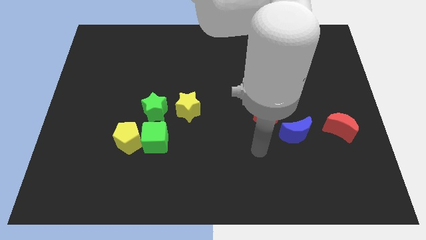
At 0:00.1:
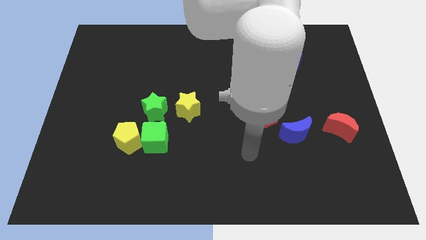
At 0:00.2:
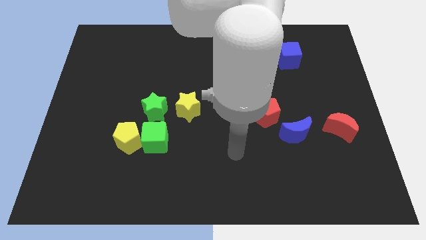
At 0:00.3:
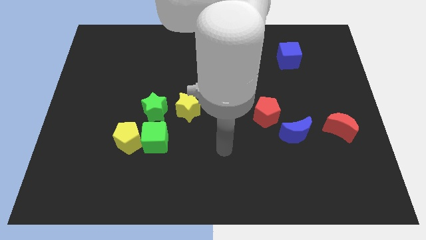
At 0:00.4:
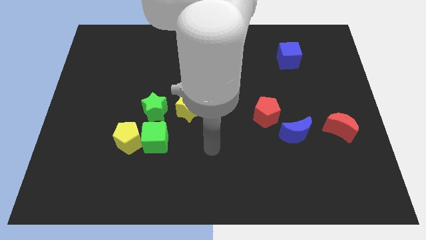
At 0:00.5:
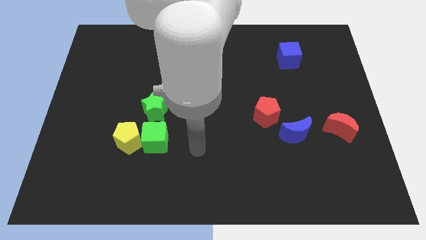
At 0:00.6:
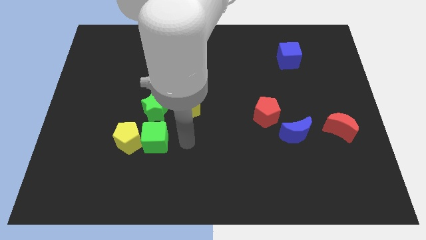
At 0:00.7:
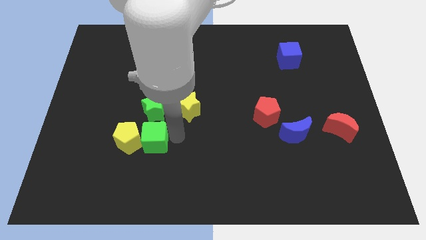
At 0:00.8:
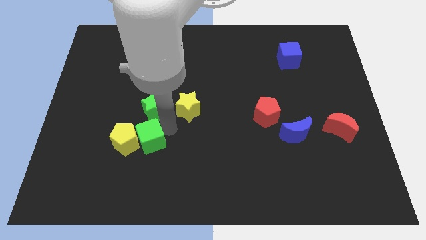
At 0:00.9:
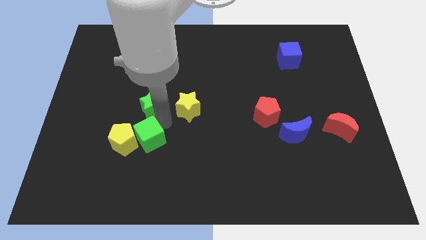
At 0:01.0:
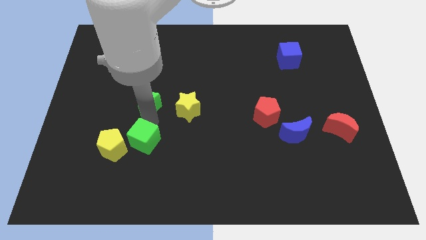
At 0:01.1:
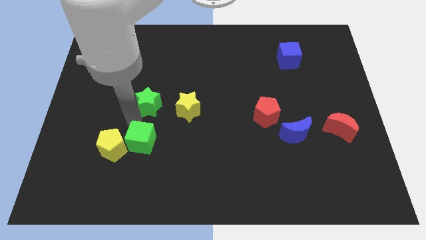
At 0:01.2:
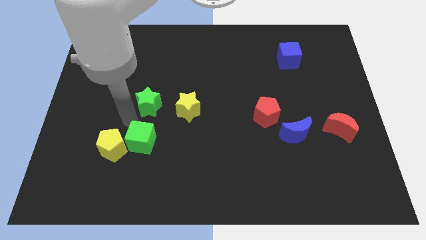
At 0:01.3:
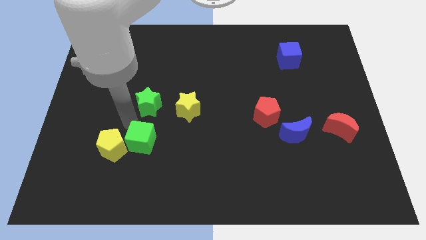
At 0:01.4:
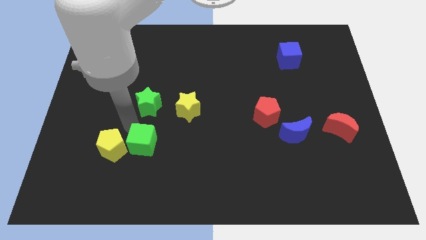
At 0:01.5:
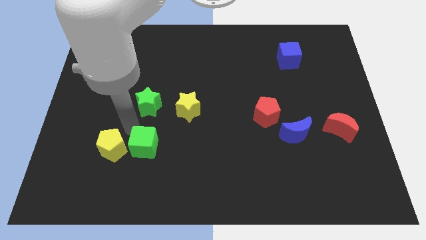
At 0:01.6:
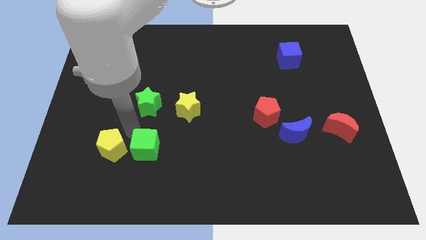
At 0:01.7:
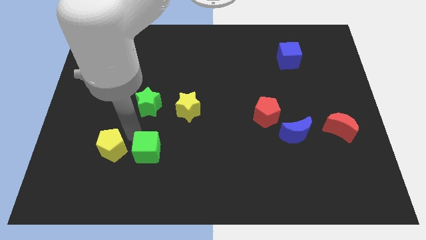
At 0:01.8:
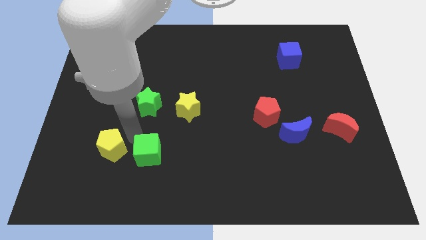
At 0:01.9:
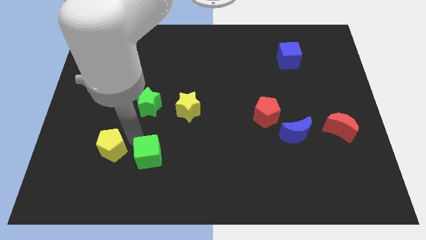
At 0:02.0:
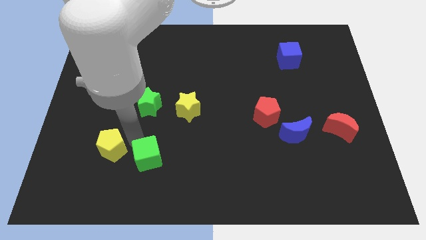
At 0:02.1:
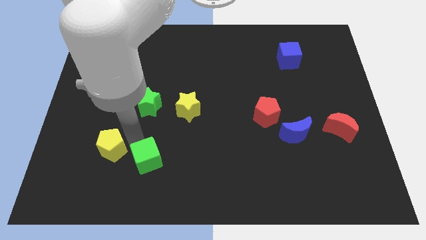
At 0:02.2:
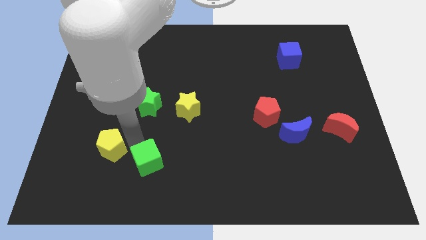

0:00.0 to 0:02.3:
separate the green cube from the yellow pentagon and green star

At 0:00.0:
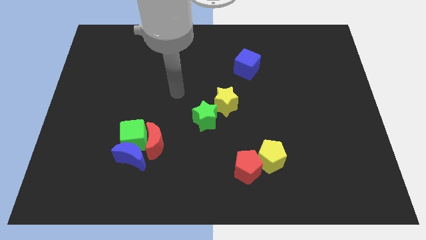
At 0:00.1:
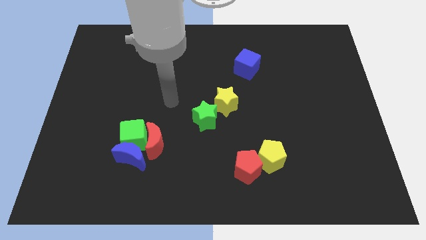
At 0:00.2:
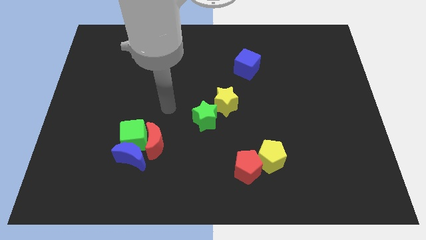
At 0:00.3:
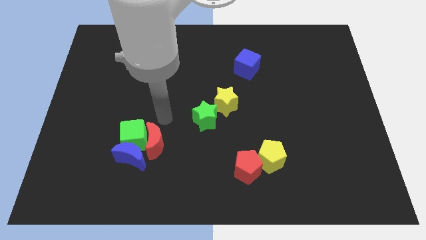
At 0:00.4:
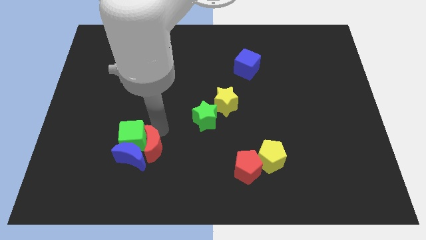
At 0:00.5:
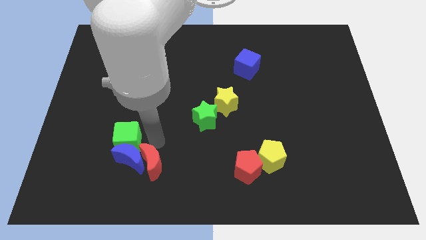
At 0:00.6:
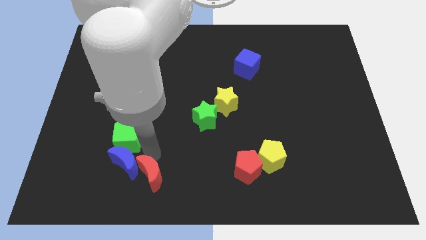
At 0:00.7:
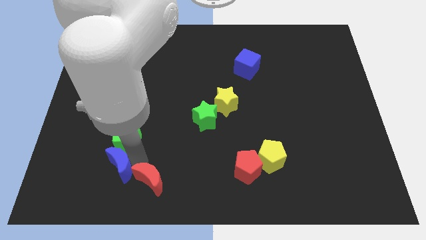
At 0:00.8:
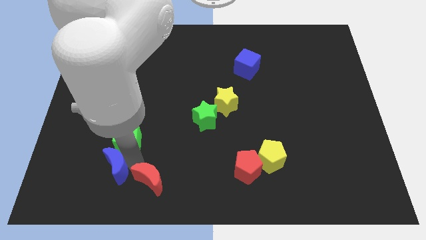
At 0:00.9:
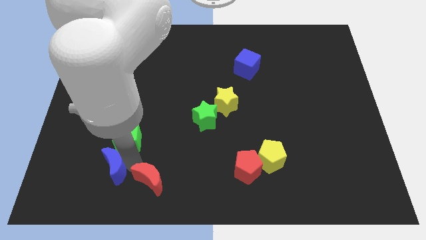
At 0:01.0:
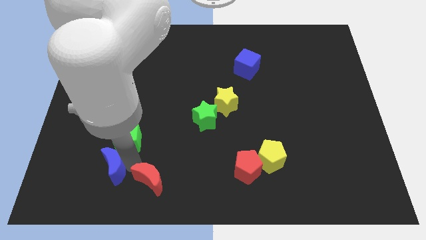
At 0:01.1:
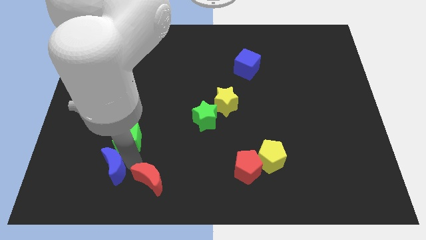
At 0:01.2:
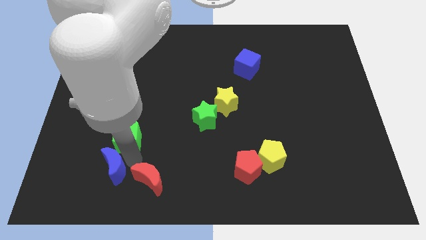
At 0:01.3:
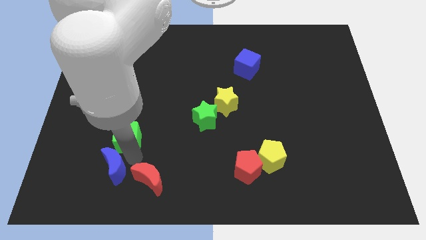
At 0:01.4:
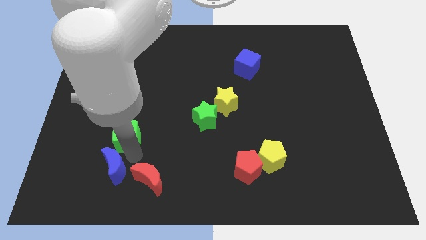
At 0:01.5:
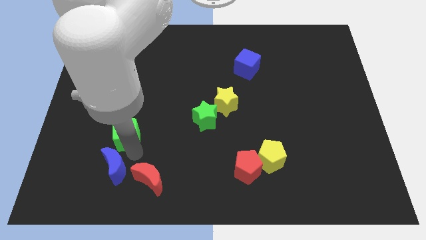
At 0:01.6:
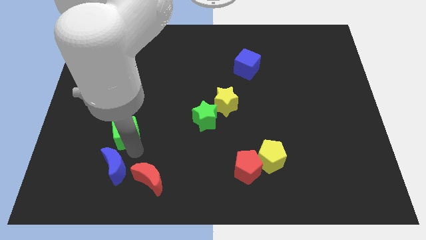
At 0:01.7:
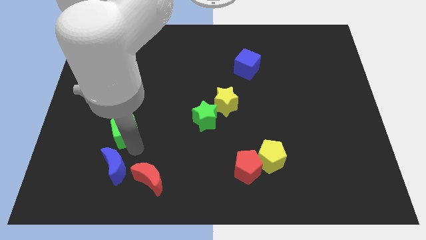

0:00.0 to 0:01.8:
move the green cube away from the blue moon and red moon

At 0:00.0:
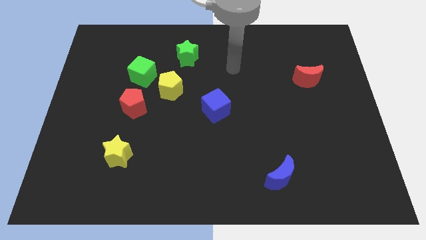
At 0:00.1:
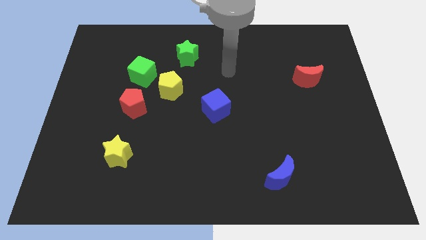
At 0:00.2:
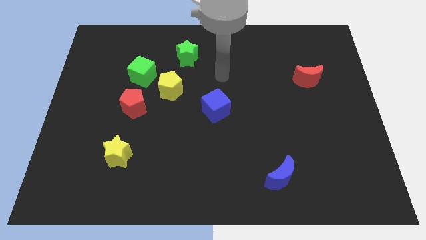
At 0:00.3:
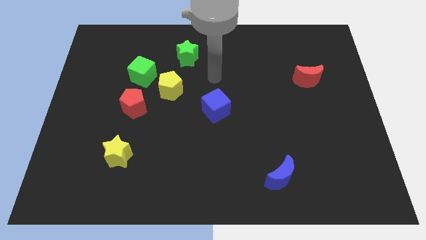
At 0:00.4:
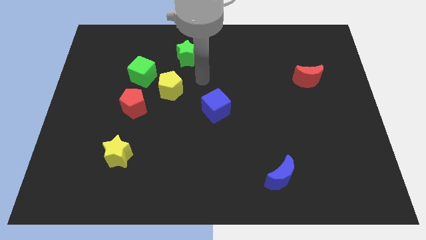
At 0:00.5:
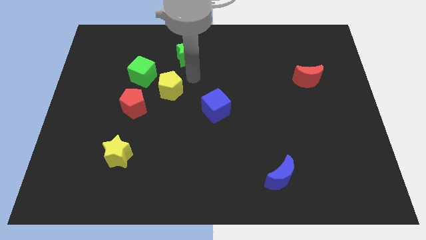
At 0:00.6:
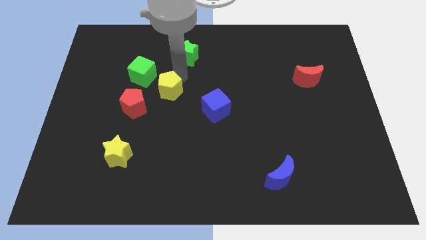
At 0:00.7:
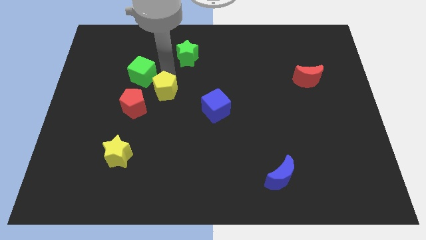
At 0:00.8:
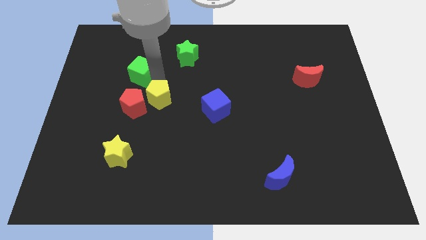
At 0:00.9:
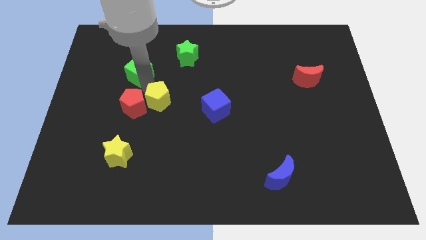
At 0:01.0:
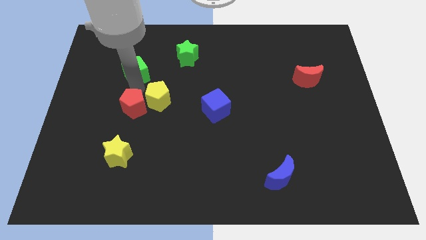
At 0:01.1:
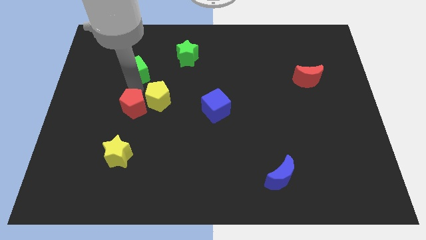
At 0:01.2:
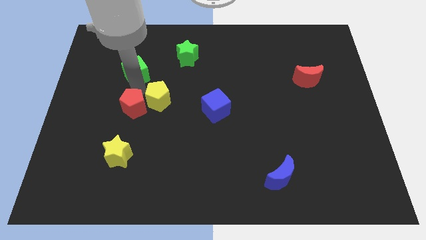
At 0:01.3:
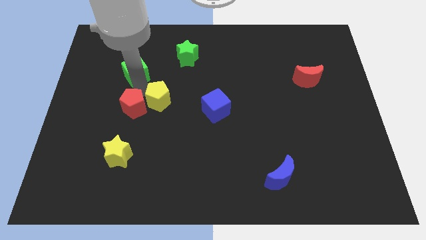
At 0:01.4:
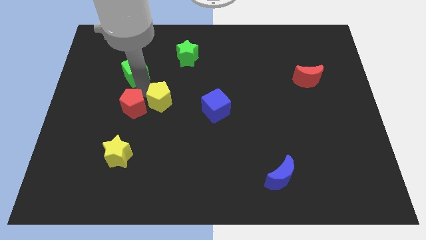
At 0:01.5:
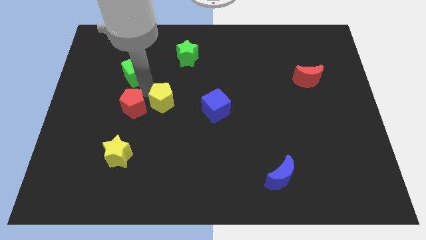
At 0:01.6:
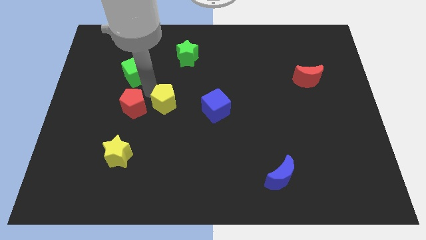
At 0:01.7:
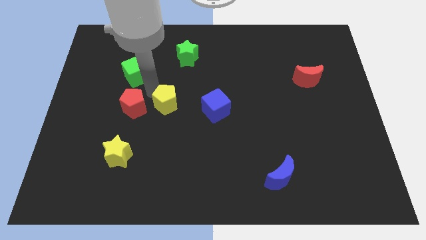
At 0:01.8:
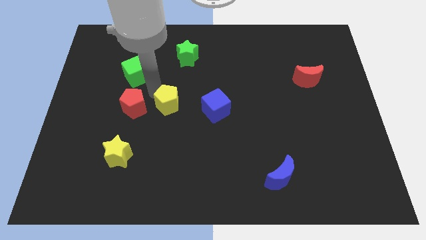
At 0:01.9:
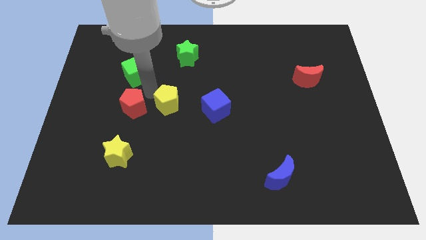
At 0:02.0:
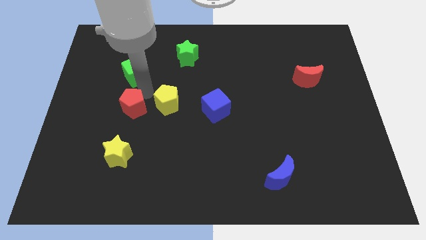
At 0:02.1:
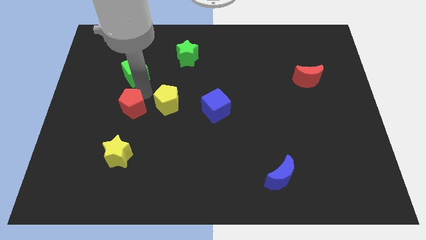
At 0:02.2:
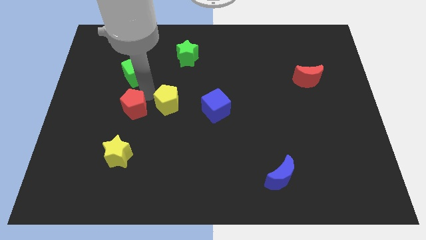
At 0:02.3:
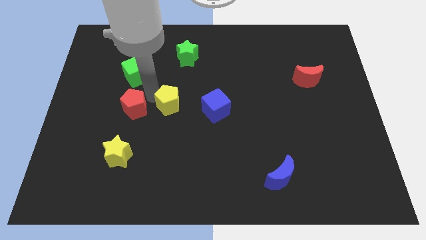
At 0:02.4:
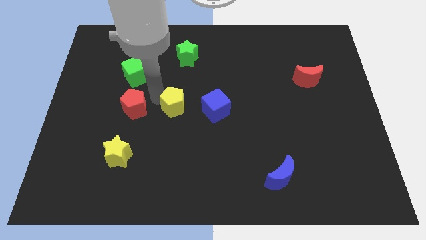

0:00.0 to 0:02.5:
separate the yellow pentagon from the green cube and red pentagon

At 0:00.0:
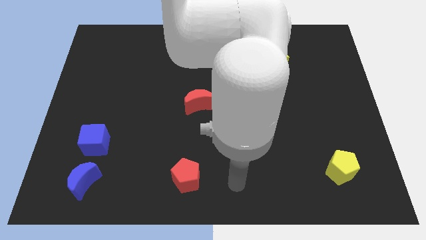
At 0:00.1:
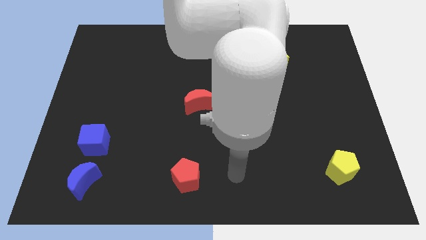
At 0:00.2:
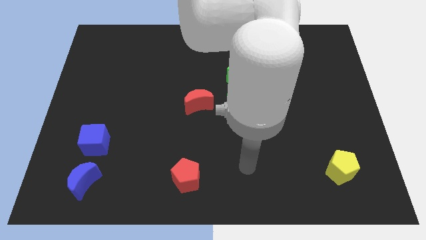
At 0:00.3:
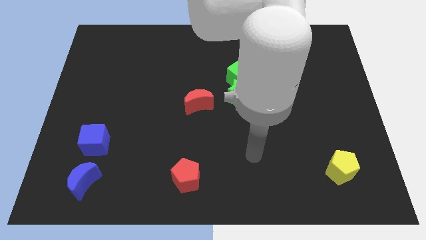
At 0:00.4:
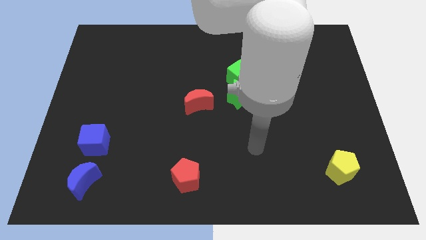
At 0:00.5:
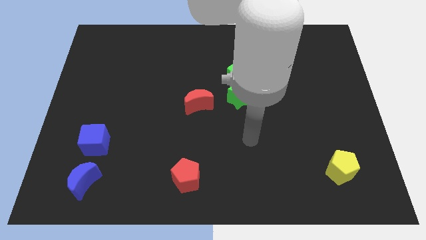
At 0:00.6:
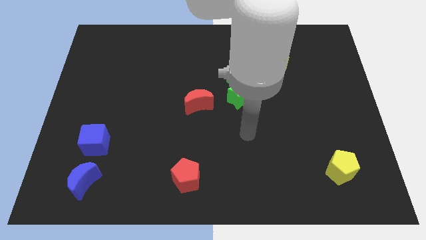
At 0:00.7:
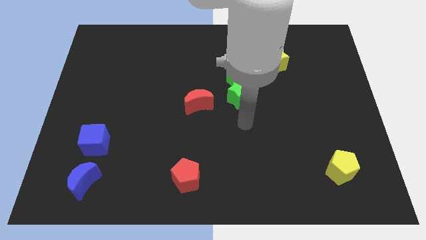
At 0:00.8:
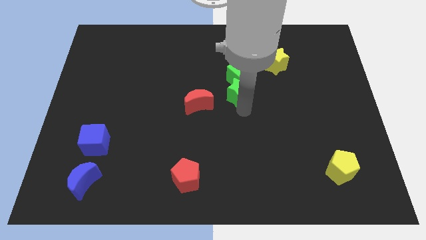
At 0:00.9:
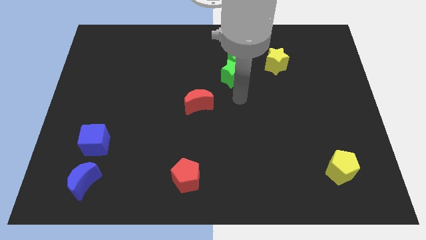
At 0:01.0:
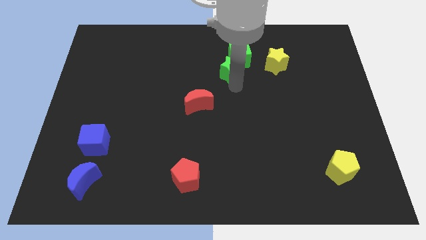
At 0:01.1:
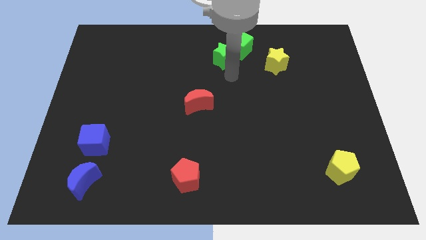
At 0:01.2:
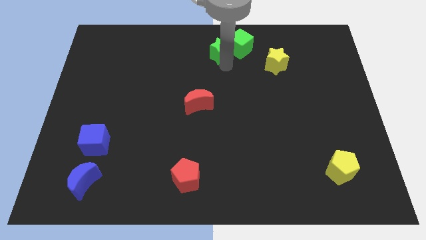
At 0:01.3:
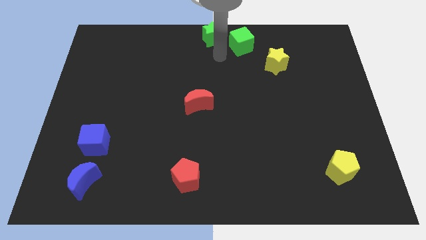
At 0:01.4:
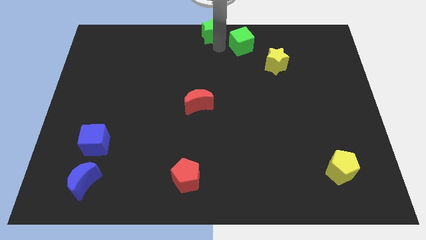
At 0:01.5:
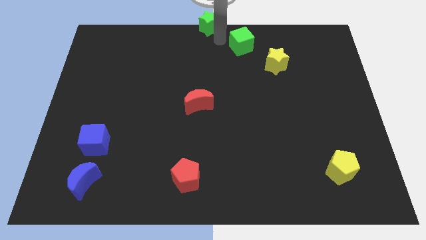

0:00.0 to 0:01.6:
move the green cube away from the green star

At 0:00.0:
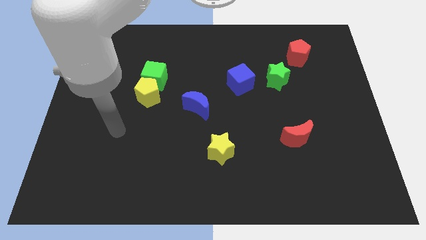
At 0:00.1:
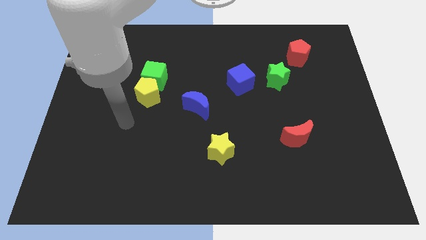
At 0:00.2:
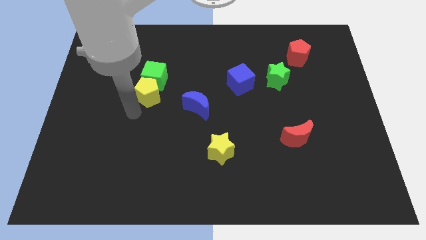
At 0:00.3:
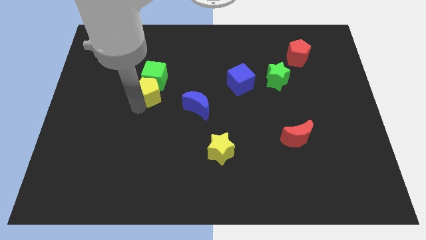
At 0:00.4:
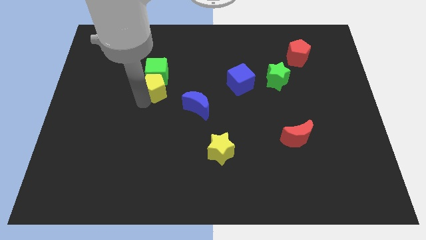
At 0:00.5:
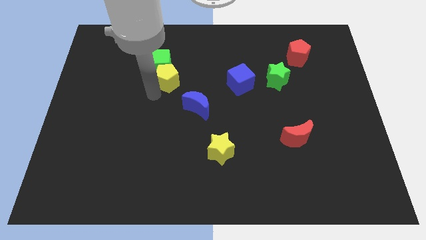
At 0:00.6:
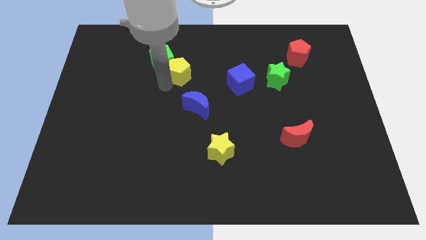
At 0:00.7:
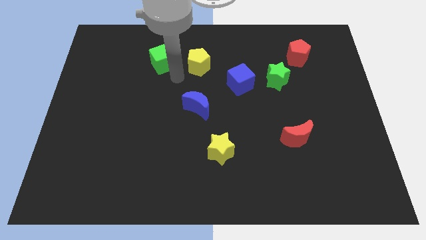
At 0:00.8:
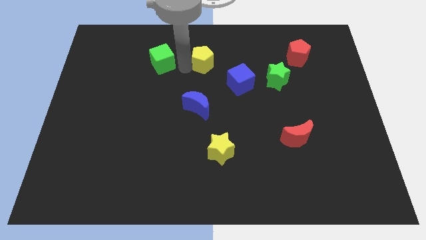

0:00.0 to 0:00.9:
pull the green cube apart from the yellow pentagon

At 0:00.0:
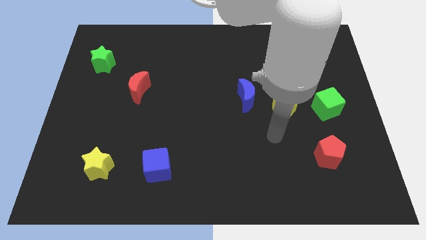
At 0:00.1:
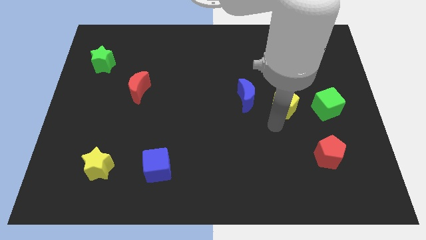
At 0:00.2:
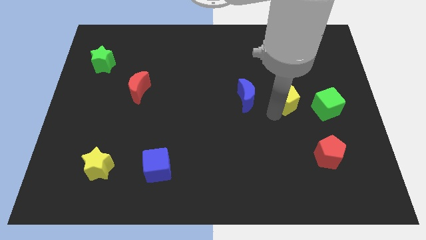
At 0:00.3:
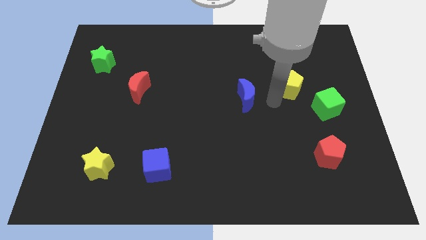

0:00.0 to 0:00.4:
move the blue moon away from the yellow pentagon
